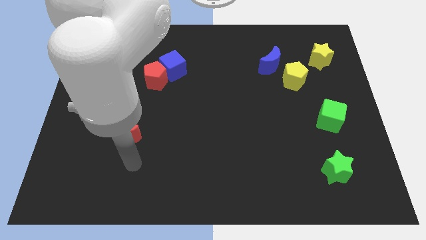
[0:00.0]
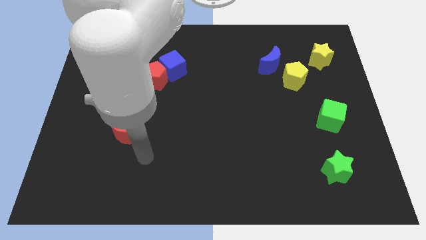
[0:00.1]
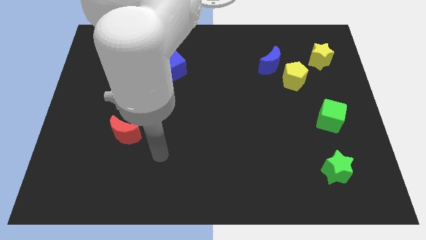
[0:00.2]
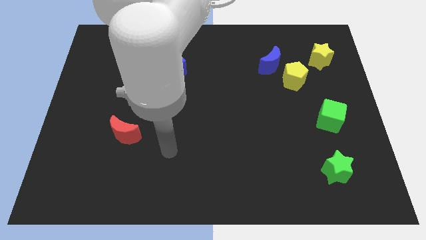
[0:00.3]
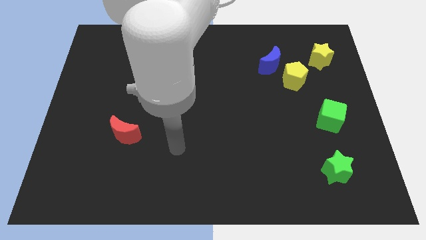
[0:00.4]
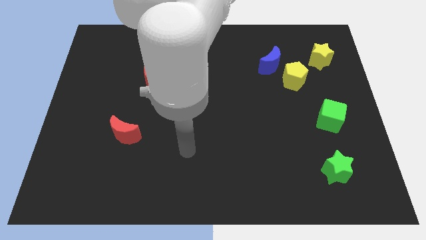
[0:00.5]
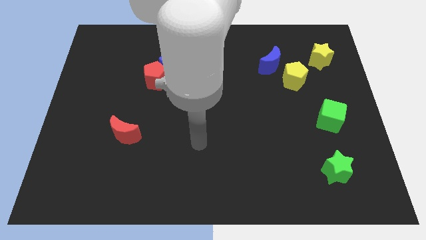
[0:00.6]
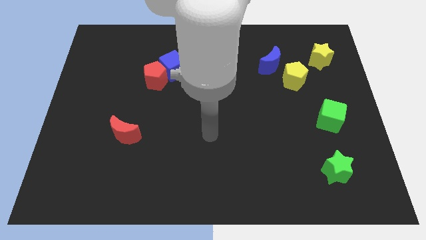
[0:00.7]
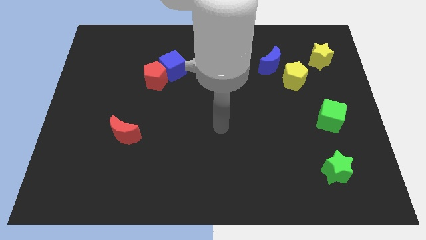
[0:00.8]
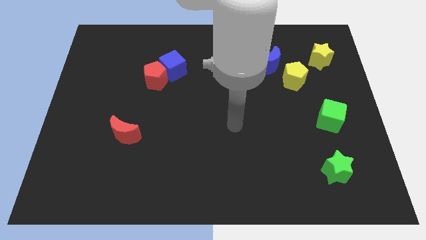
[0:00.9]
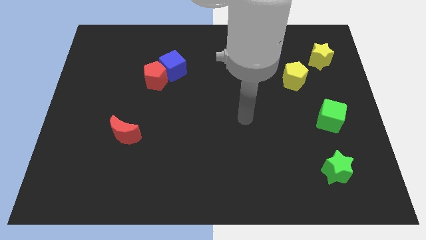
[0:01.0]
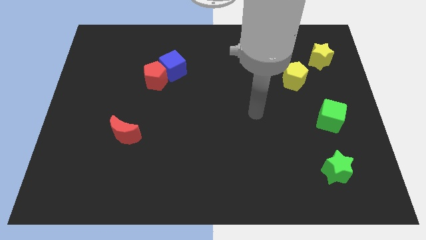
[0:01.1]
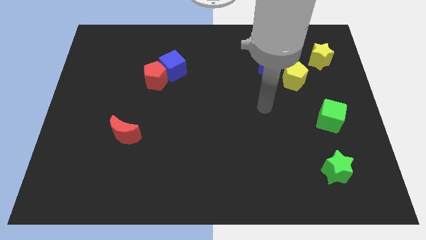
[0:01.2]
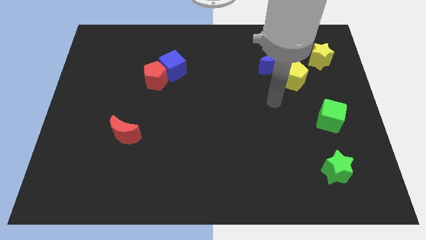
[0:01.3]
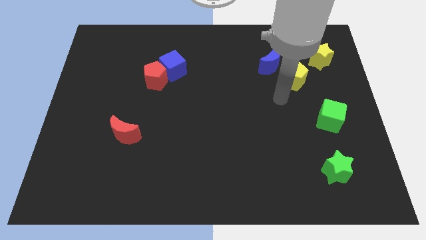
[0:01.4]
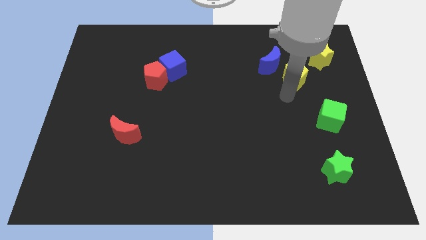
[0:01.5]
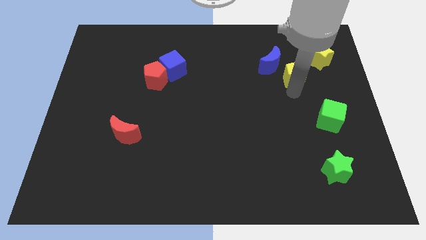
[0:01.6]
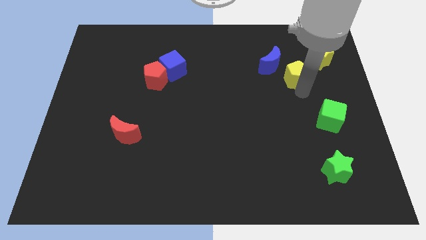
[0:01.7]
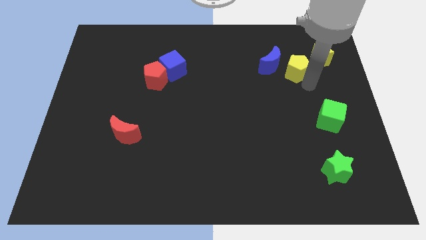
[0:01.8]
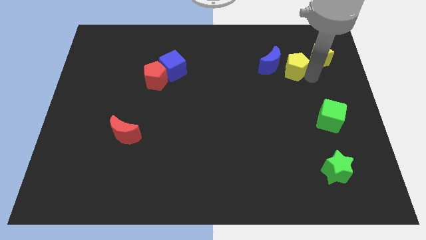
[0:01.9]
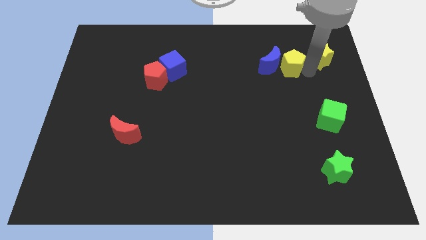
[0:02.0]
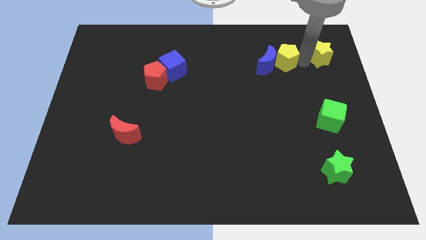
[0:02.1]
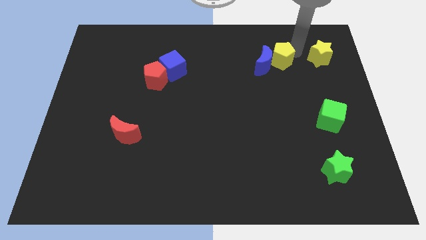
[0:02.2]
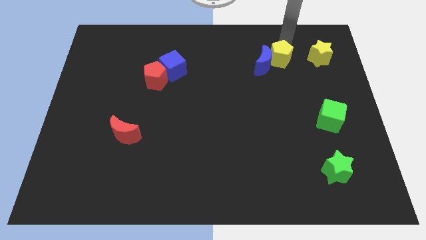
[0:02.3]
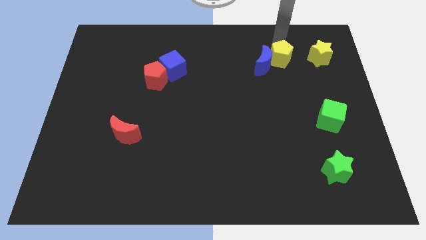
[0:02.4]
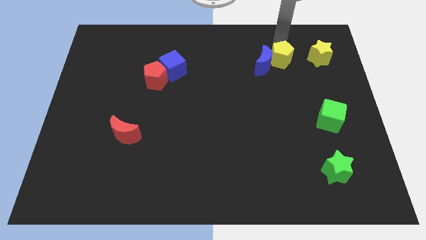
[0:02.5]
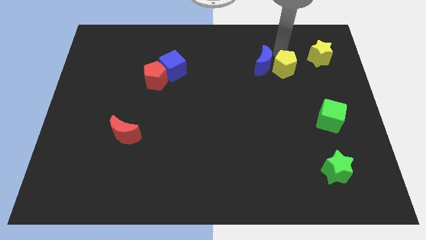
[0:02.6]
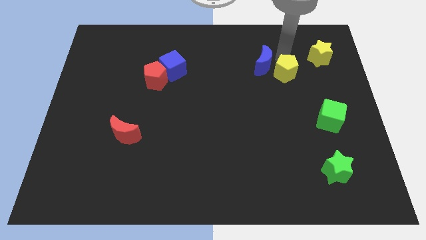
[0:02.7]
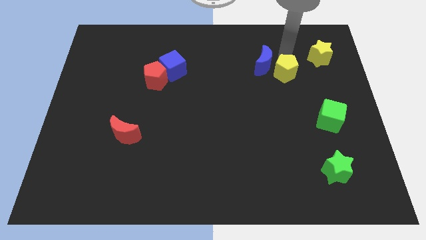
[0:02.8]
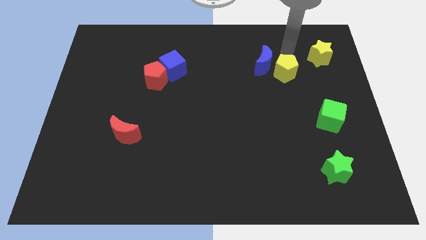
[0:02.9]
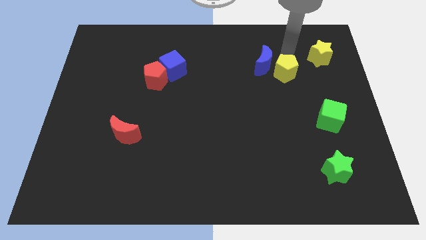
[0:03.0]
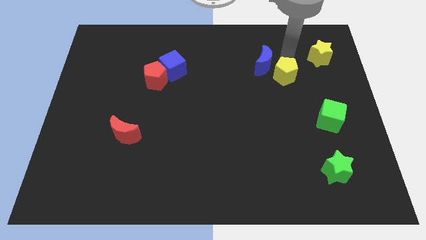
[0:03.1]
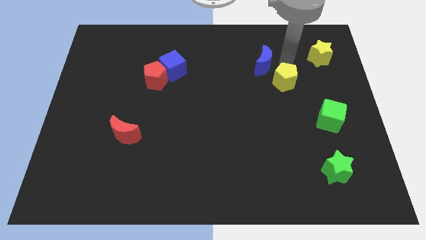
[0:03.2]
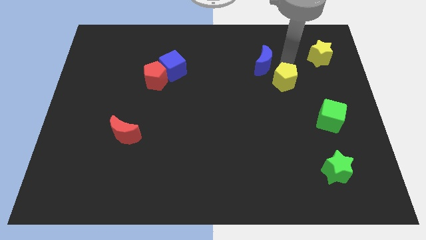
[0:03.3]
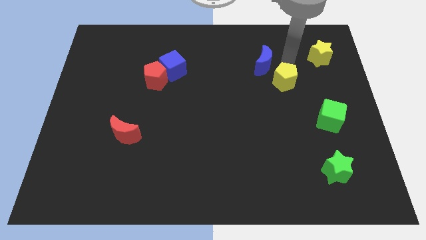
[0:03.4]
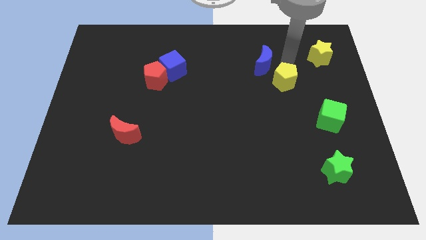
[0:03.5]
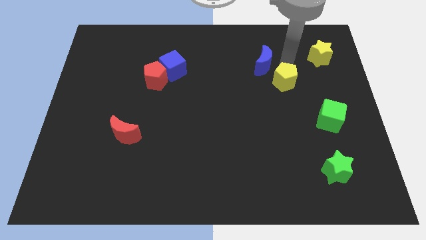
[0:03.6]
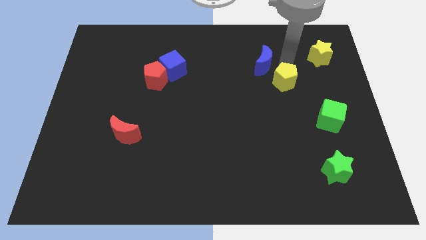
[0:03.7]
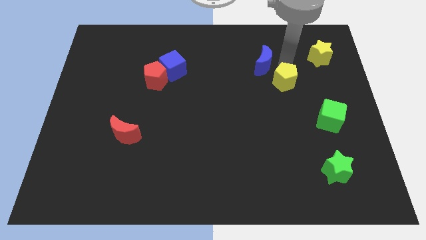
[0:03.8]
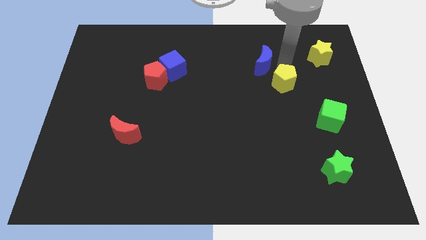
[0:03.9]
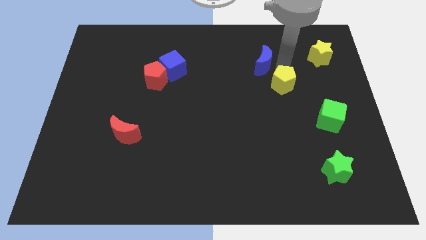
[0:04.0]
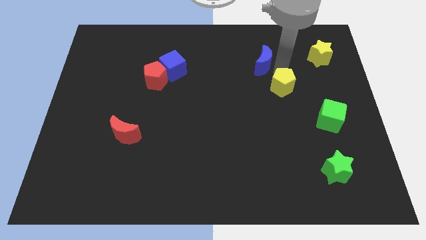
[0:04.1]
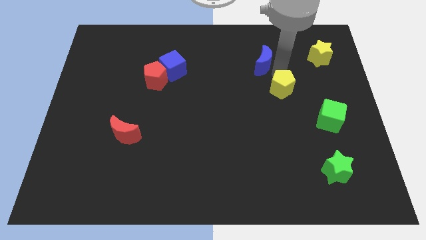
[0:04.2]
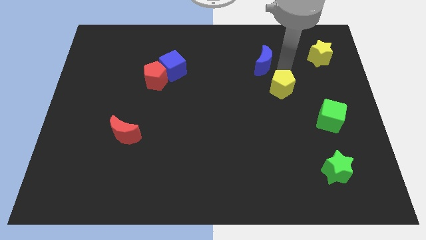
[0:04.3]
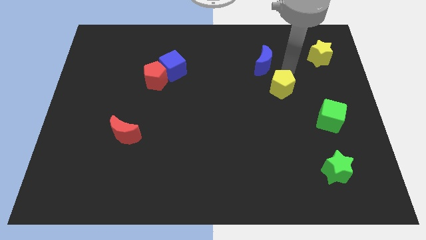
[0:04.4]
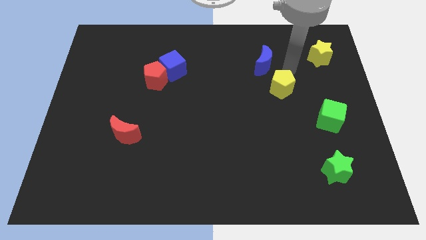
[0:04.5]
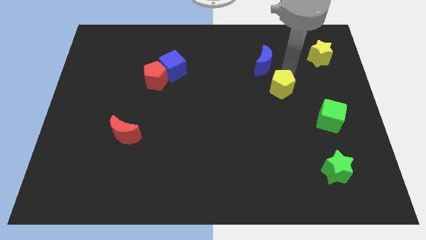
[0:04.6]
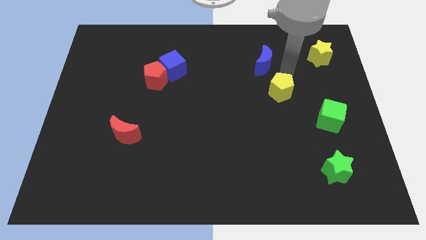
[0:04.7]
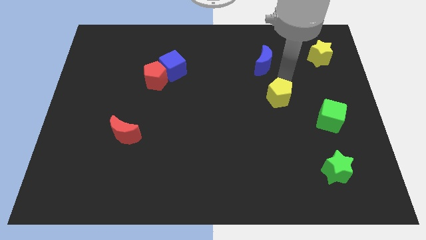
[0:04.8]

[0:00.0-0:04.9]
slightly push the yellow pentagon down and left diagonally

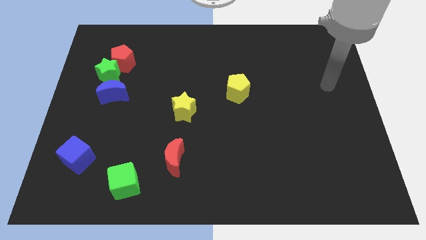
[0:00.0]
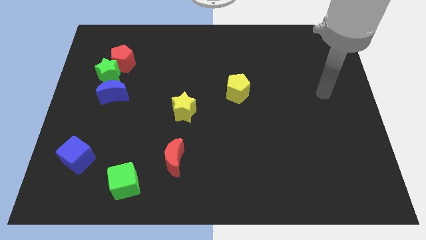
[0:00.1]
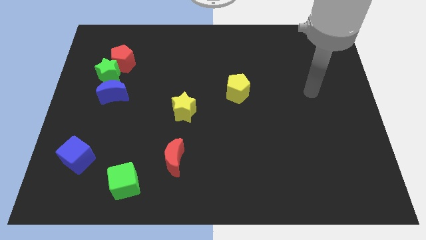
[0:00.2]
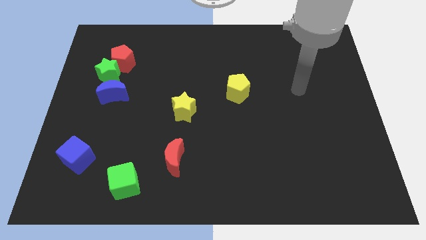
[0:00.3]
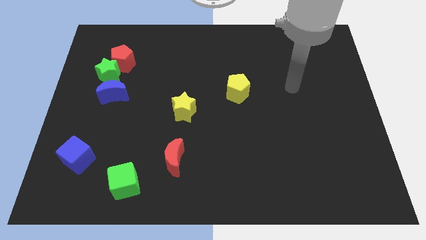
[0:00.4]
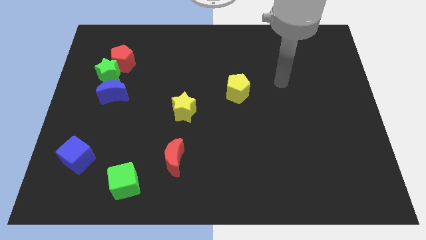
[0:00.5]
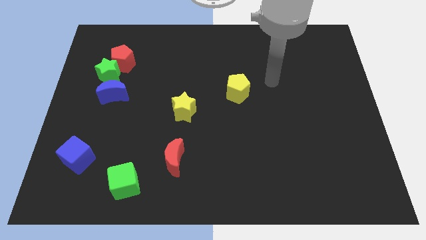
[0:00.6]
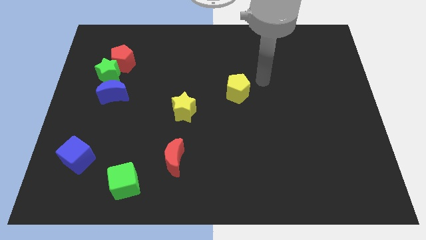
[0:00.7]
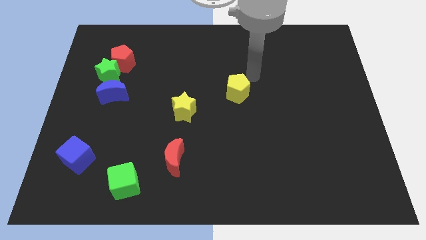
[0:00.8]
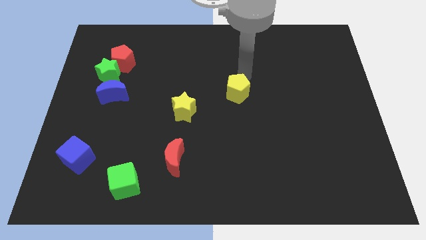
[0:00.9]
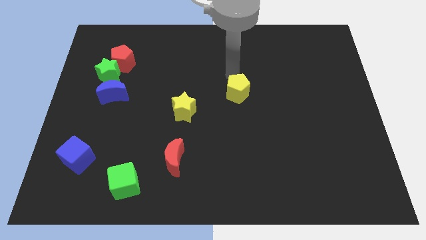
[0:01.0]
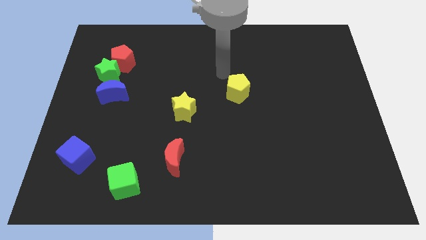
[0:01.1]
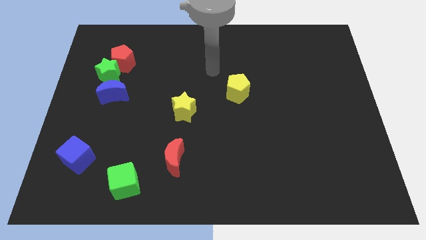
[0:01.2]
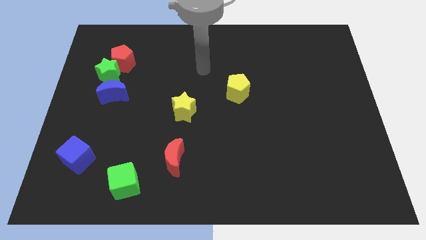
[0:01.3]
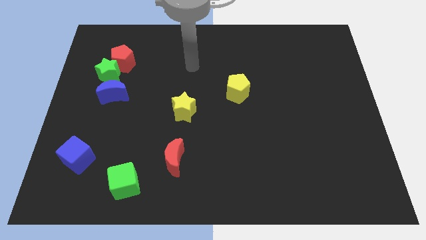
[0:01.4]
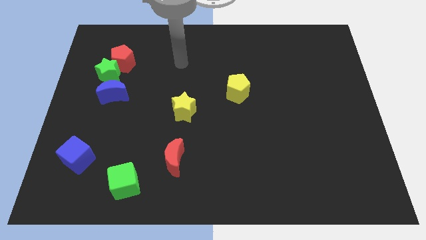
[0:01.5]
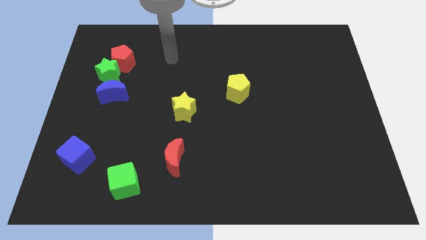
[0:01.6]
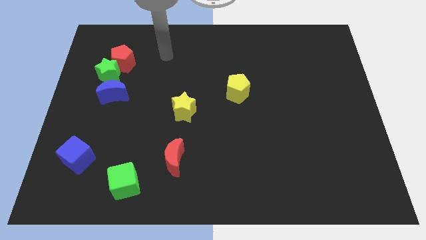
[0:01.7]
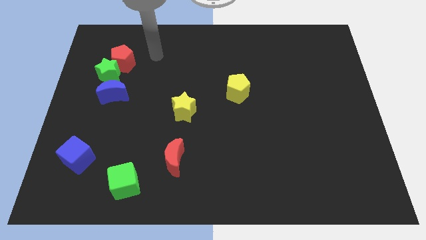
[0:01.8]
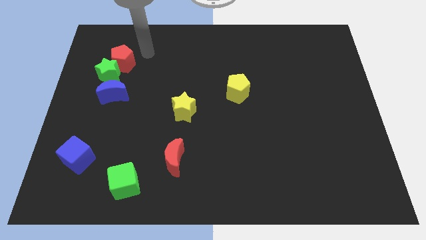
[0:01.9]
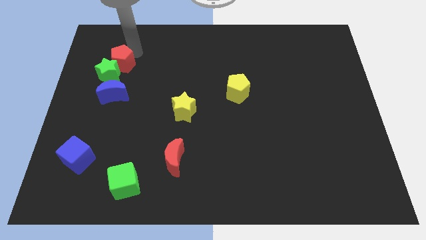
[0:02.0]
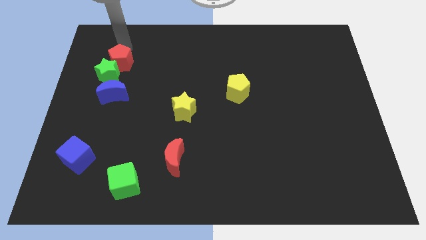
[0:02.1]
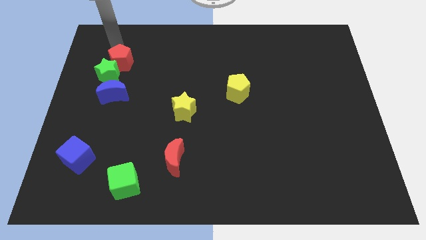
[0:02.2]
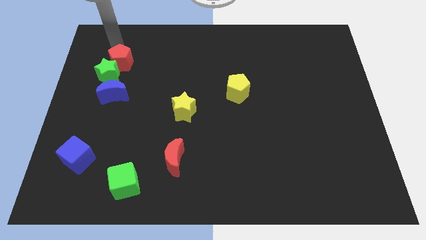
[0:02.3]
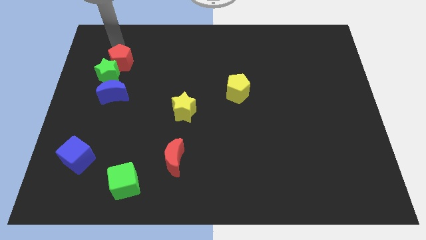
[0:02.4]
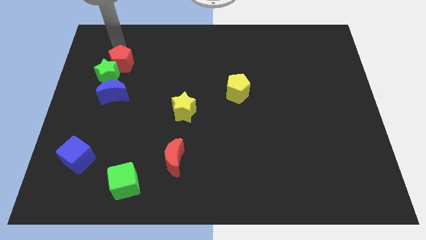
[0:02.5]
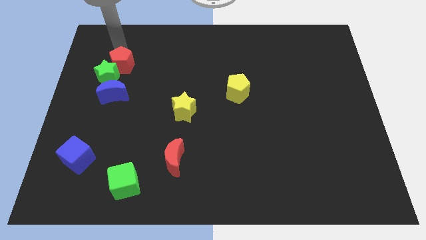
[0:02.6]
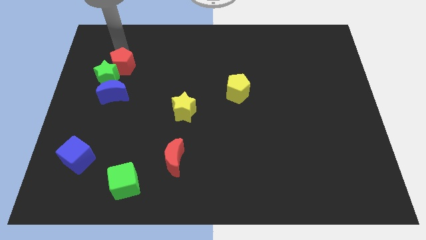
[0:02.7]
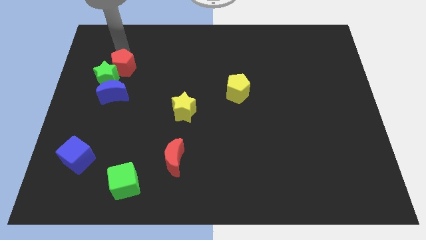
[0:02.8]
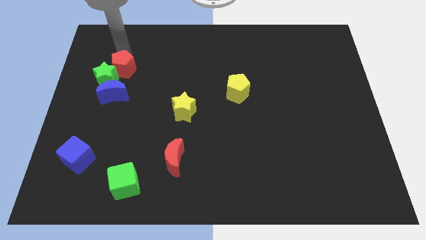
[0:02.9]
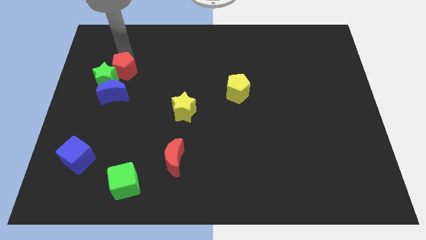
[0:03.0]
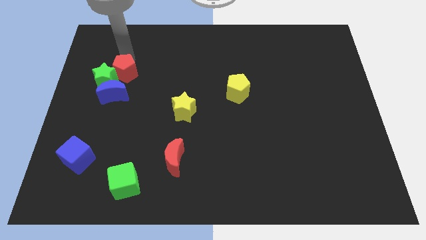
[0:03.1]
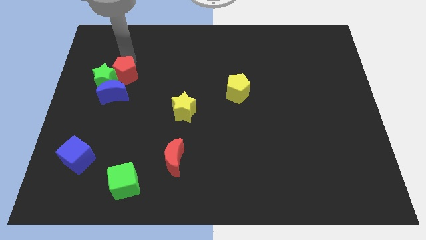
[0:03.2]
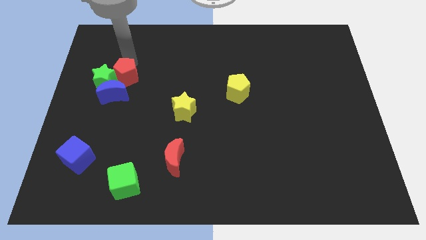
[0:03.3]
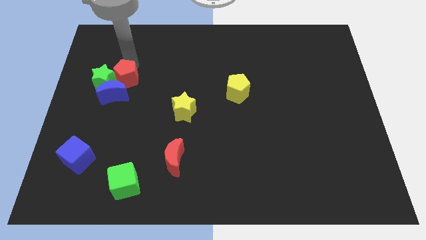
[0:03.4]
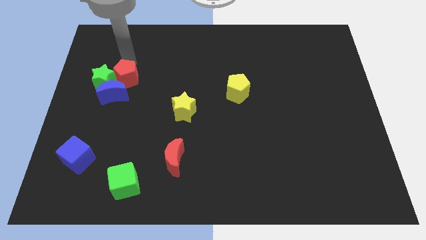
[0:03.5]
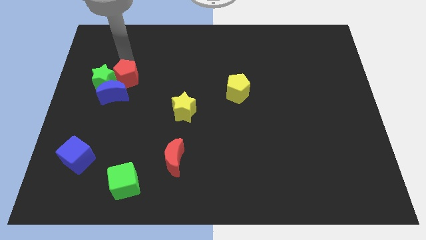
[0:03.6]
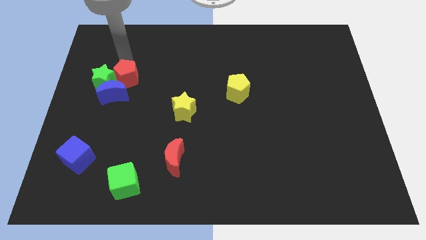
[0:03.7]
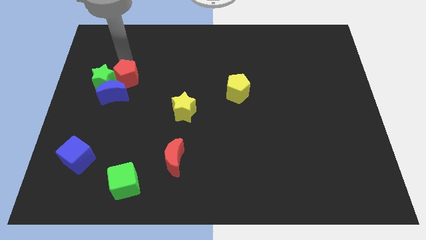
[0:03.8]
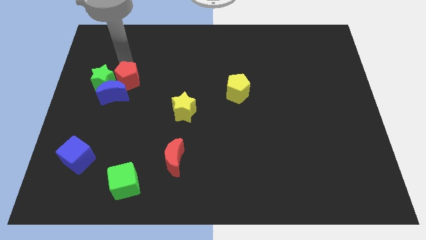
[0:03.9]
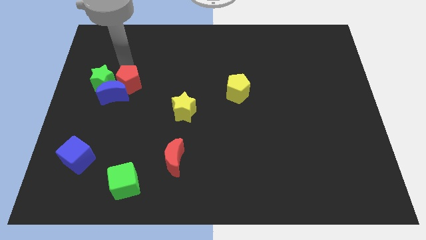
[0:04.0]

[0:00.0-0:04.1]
push the red pentagon slightly downwards
